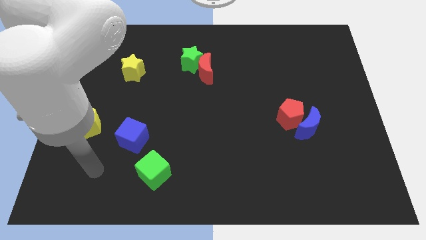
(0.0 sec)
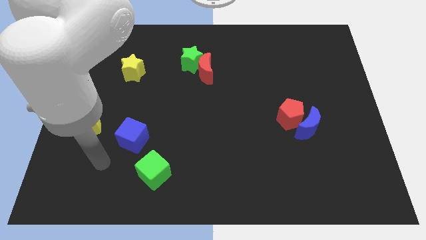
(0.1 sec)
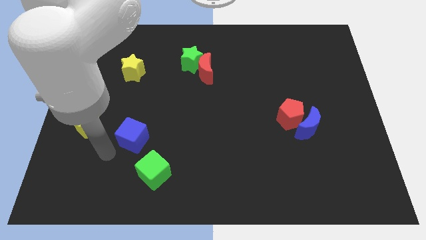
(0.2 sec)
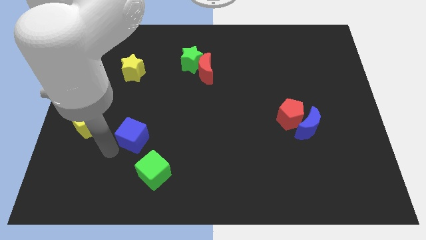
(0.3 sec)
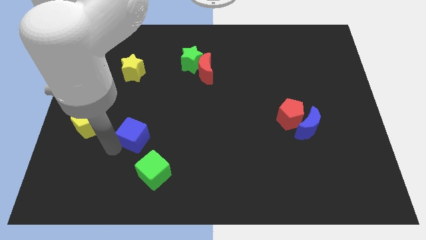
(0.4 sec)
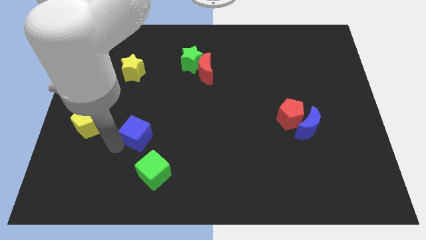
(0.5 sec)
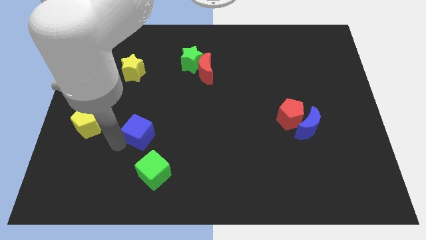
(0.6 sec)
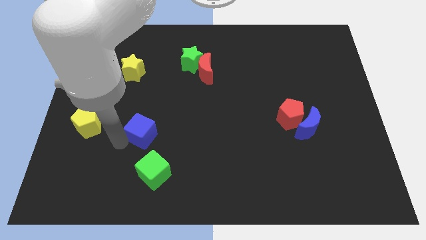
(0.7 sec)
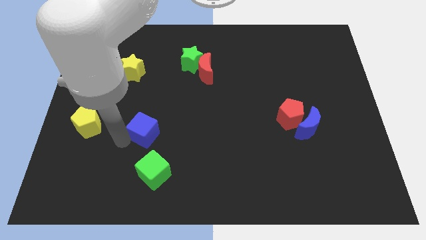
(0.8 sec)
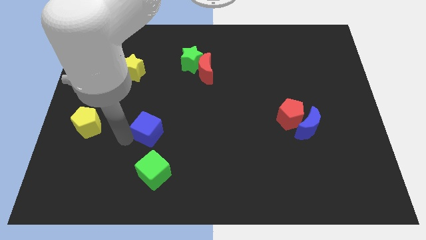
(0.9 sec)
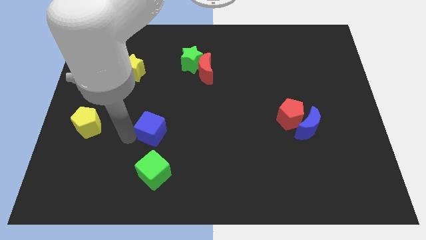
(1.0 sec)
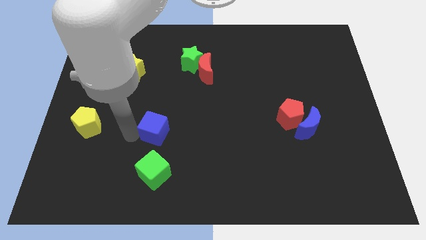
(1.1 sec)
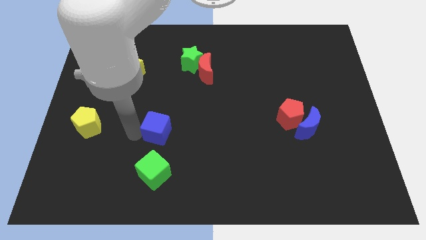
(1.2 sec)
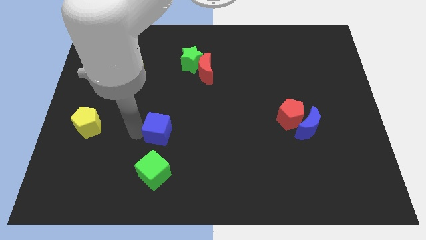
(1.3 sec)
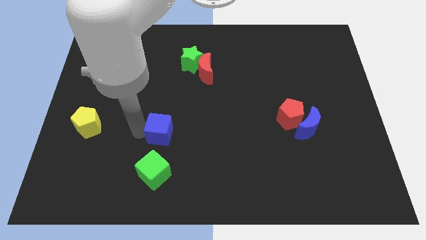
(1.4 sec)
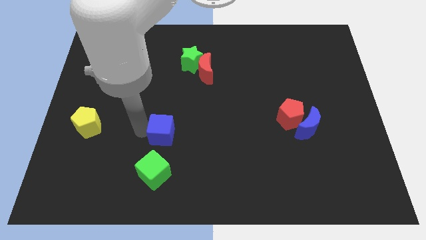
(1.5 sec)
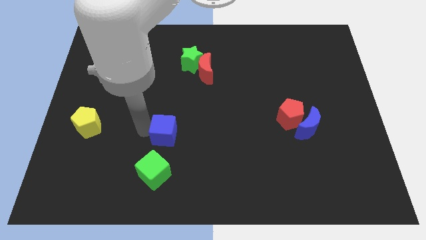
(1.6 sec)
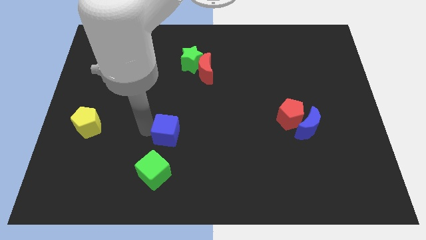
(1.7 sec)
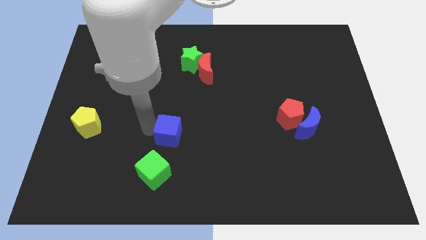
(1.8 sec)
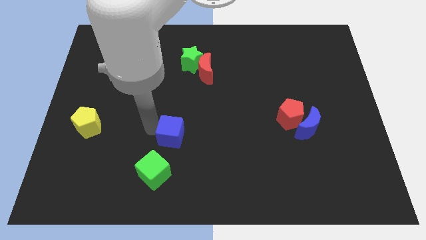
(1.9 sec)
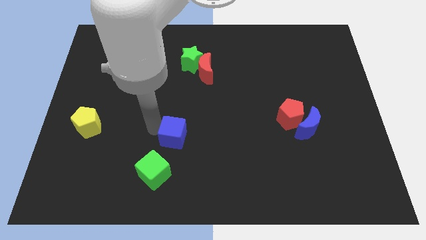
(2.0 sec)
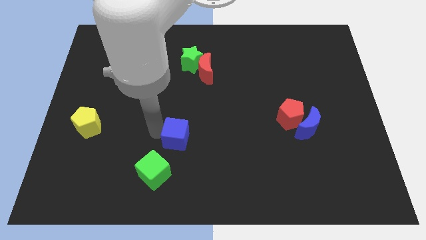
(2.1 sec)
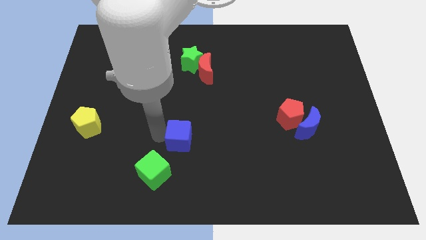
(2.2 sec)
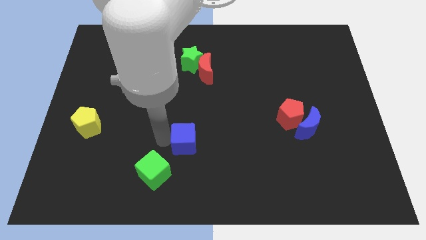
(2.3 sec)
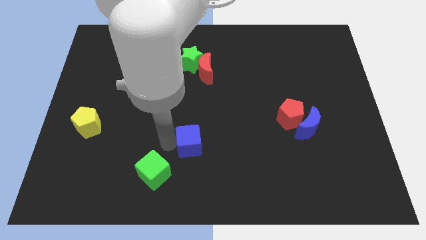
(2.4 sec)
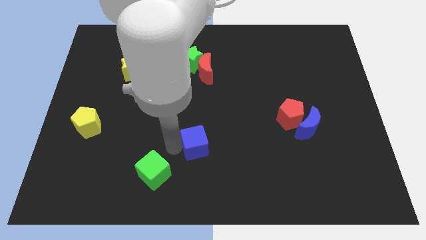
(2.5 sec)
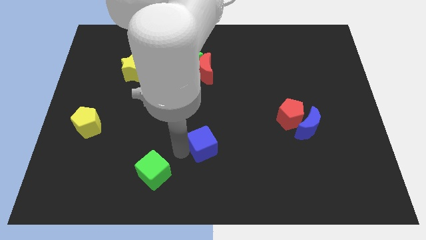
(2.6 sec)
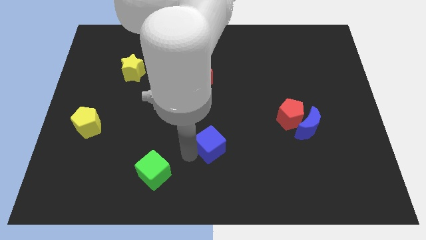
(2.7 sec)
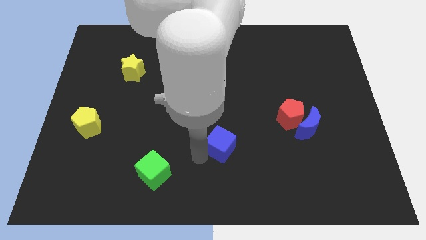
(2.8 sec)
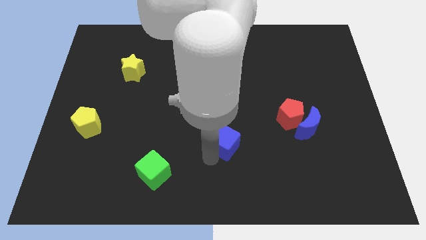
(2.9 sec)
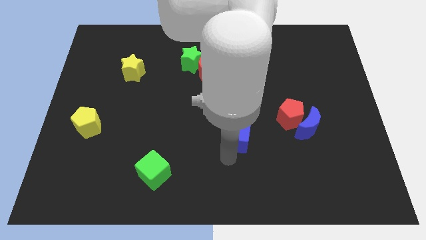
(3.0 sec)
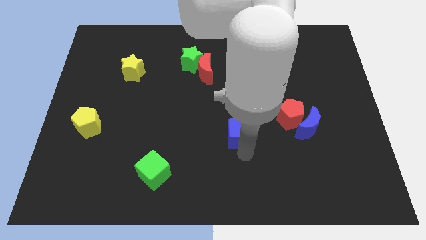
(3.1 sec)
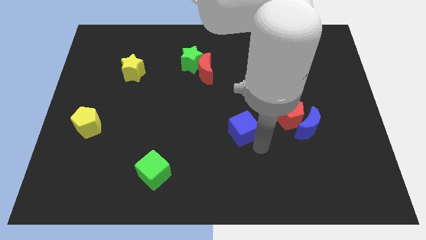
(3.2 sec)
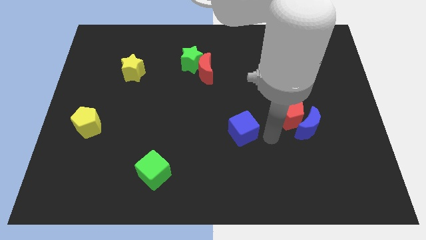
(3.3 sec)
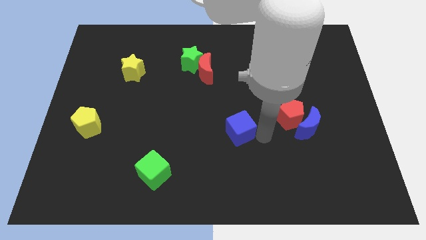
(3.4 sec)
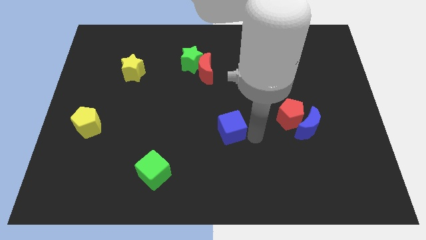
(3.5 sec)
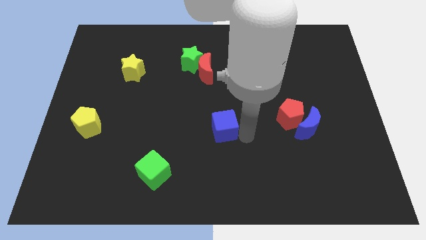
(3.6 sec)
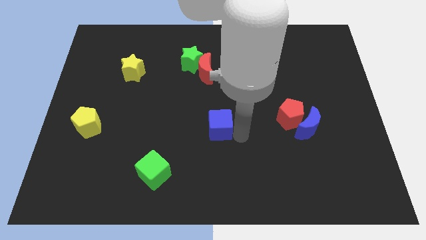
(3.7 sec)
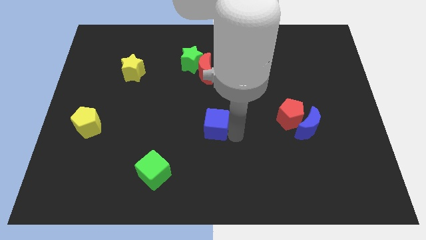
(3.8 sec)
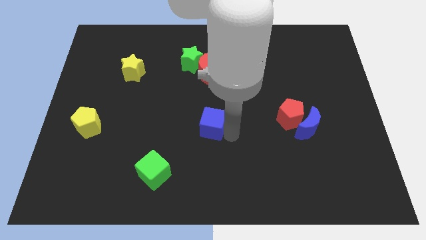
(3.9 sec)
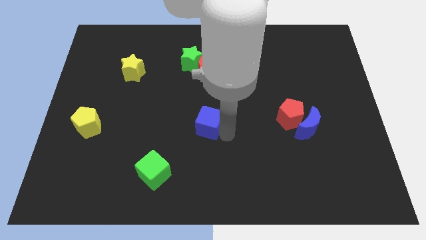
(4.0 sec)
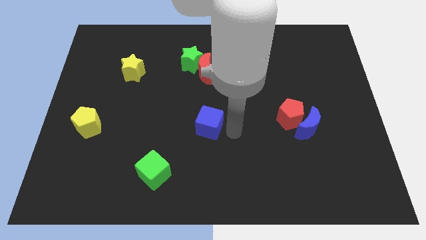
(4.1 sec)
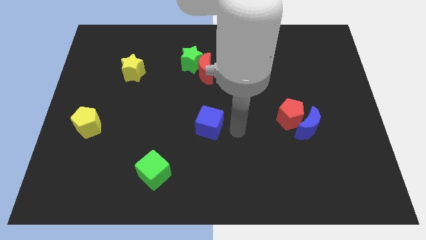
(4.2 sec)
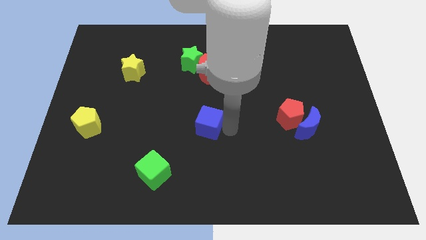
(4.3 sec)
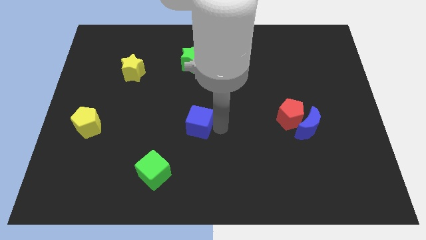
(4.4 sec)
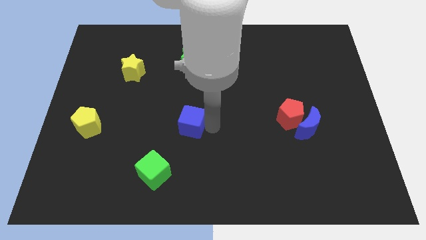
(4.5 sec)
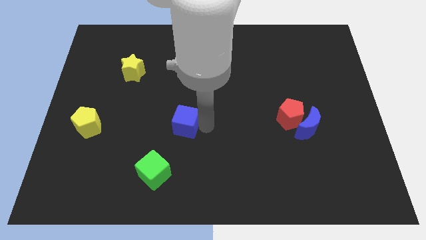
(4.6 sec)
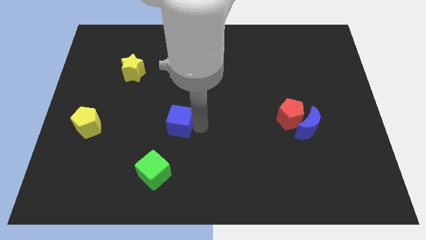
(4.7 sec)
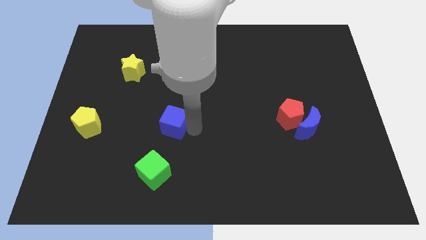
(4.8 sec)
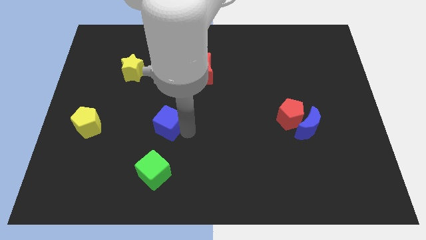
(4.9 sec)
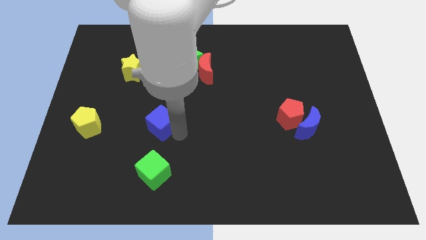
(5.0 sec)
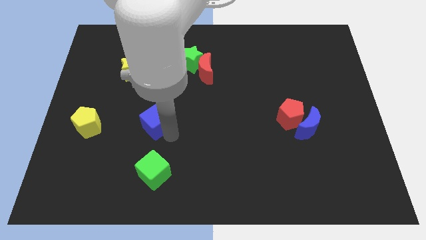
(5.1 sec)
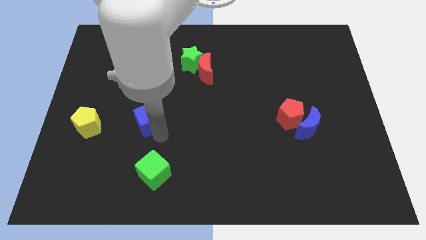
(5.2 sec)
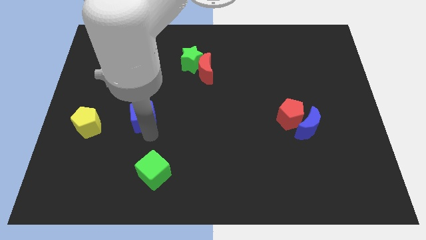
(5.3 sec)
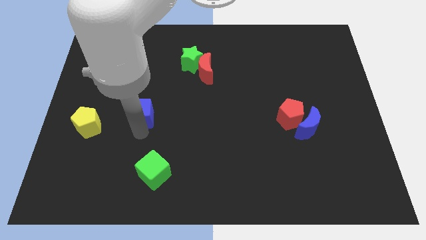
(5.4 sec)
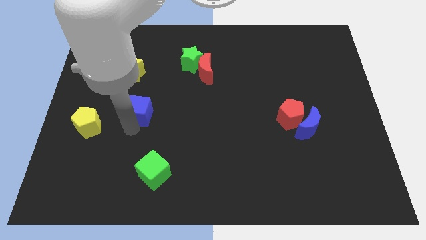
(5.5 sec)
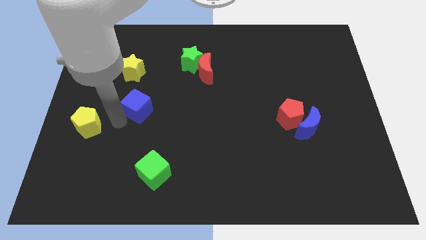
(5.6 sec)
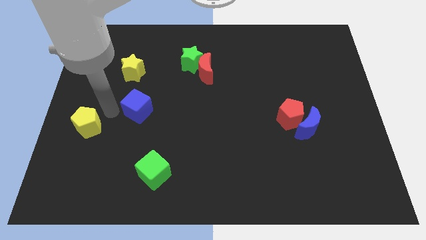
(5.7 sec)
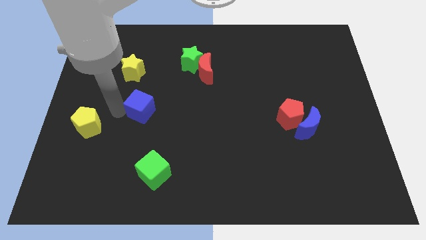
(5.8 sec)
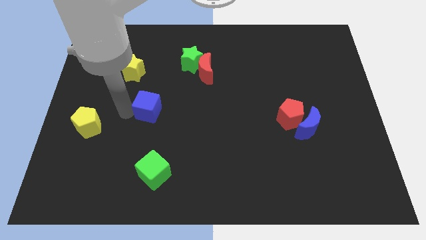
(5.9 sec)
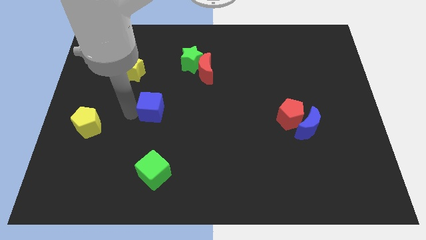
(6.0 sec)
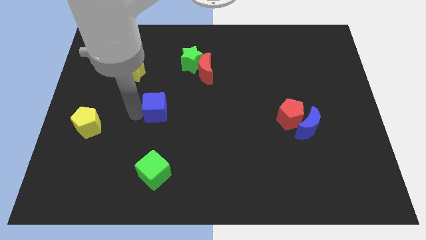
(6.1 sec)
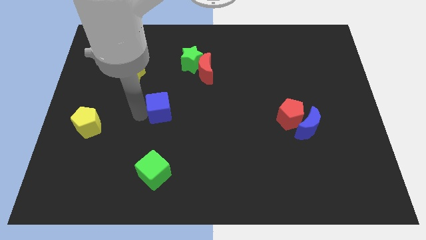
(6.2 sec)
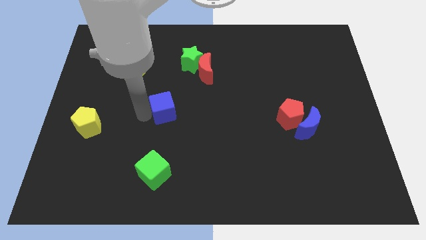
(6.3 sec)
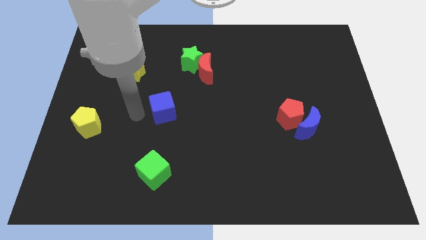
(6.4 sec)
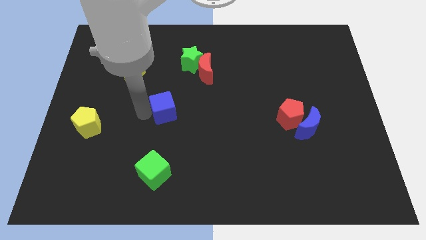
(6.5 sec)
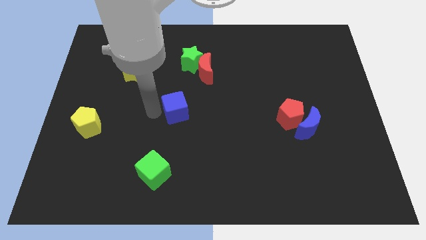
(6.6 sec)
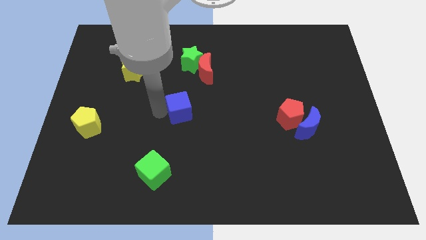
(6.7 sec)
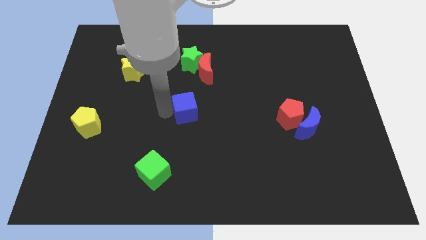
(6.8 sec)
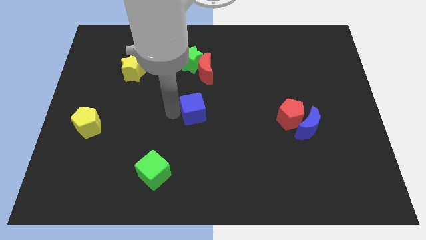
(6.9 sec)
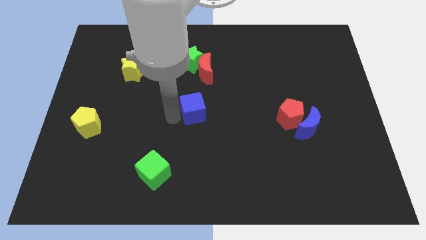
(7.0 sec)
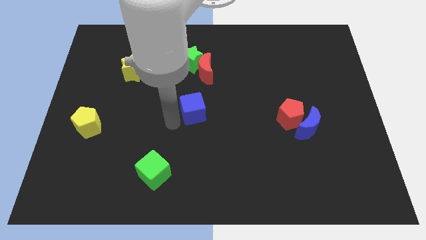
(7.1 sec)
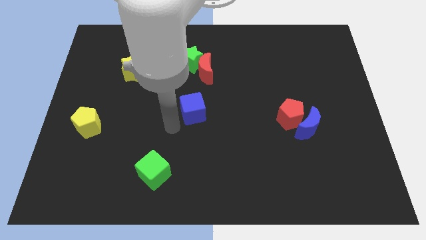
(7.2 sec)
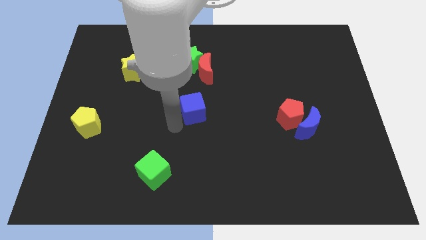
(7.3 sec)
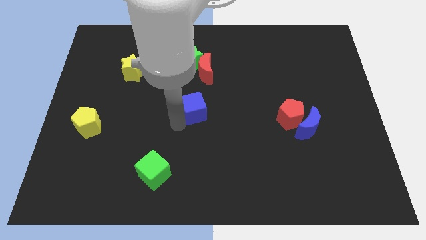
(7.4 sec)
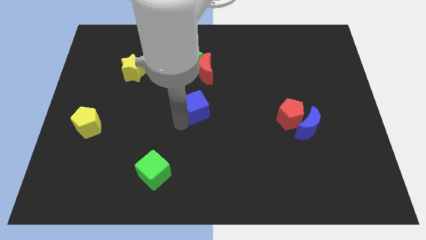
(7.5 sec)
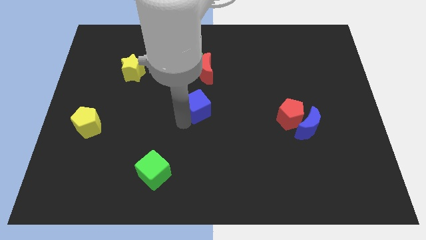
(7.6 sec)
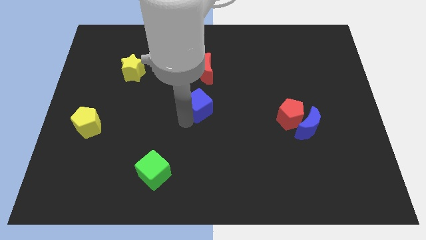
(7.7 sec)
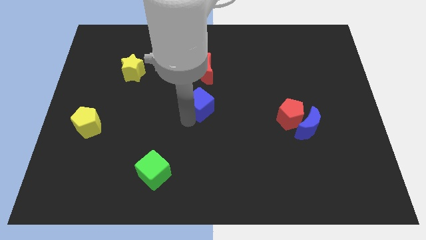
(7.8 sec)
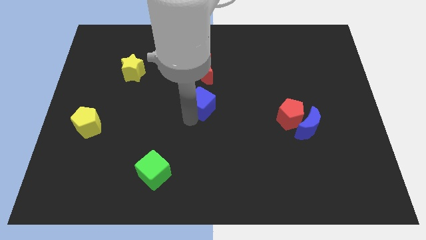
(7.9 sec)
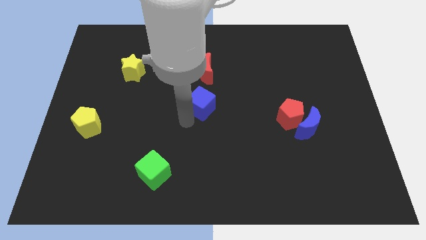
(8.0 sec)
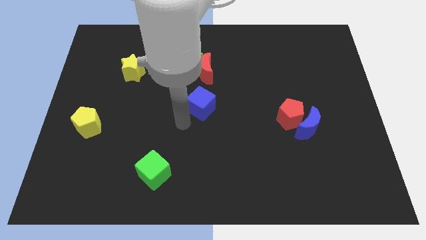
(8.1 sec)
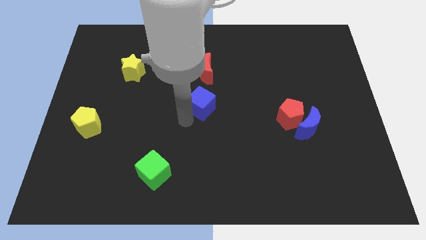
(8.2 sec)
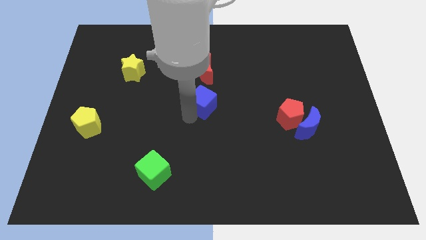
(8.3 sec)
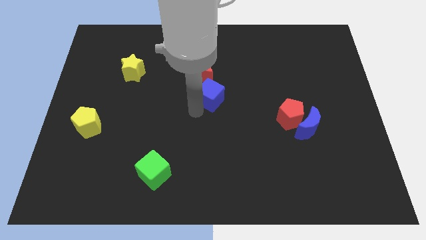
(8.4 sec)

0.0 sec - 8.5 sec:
push the blue cube to the bottom right of the red moon
